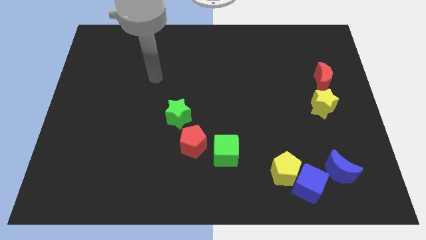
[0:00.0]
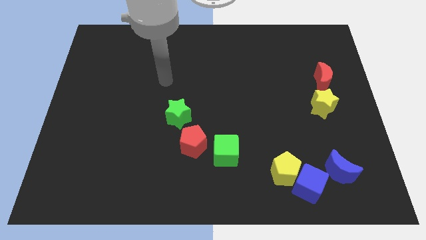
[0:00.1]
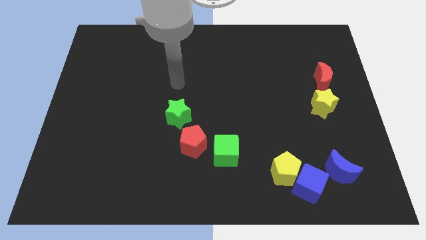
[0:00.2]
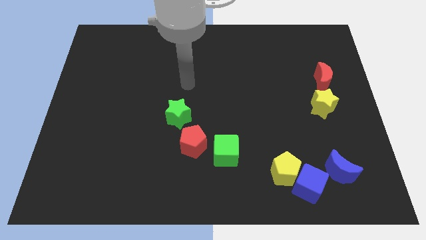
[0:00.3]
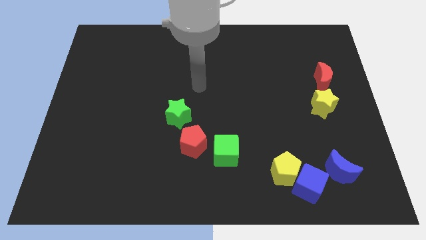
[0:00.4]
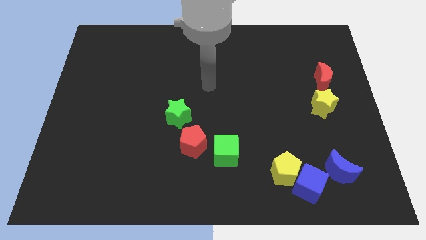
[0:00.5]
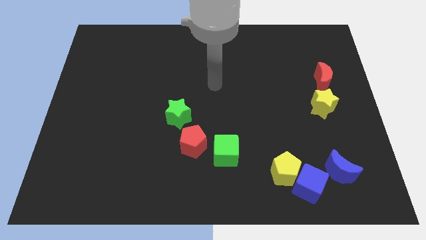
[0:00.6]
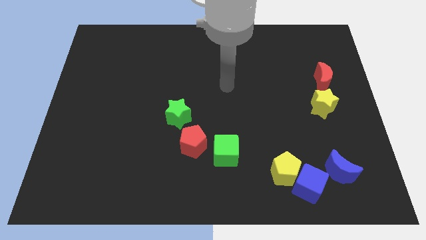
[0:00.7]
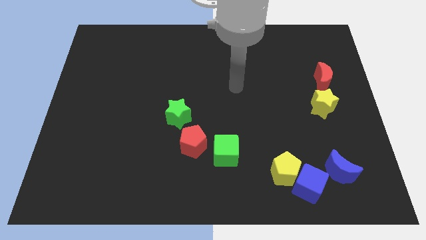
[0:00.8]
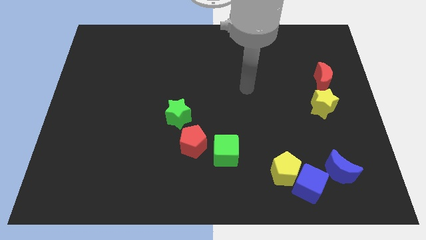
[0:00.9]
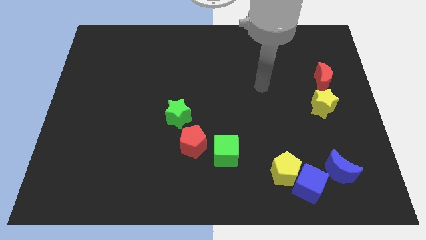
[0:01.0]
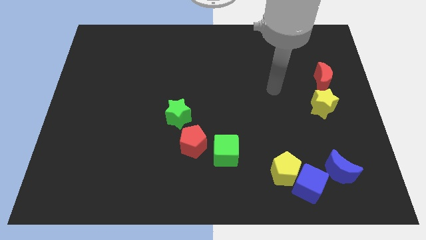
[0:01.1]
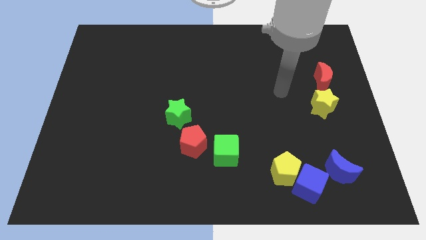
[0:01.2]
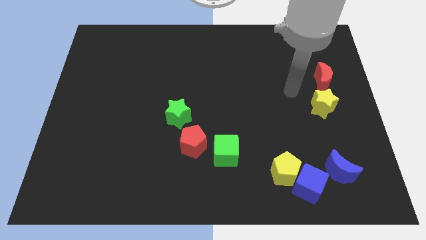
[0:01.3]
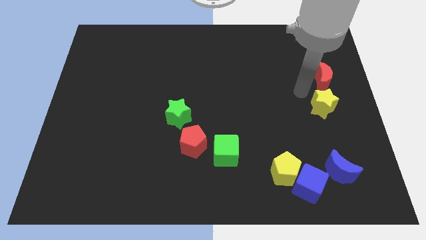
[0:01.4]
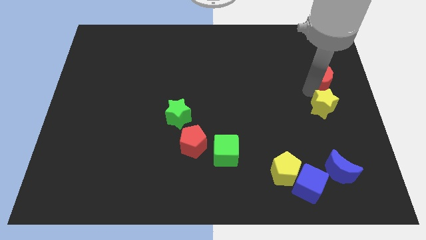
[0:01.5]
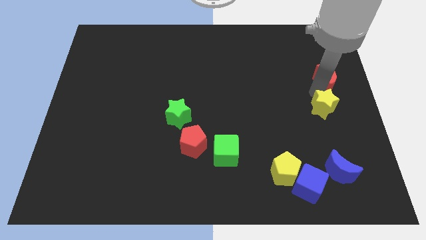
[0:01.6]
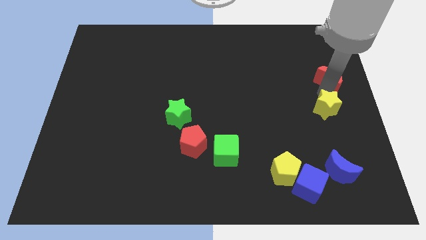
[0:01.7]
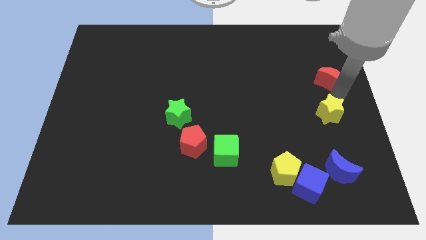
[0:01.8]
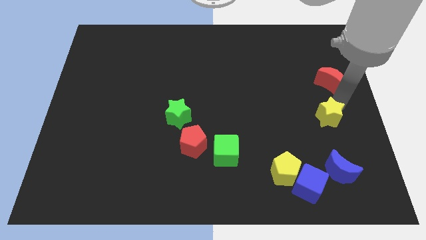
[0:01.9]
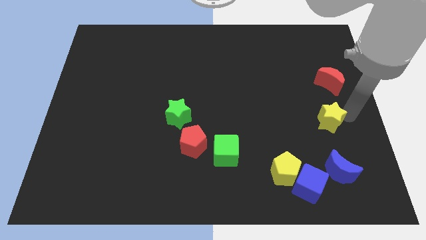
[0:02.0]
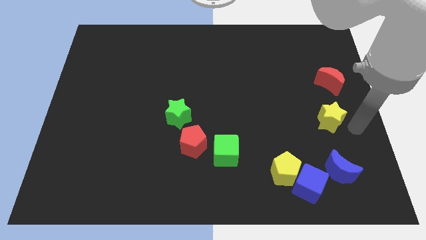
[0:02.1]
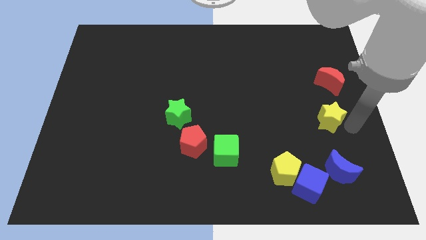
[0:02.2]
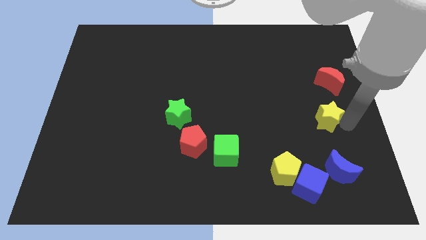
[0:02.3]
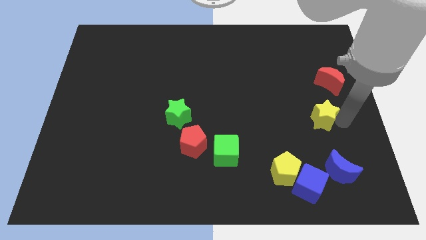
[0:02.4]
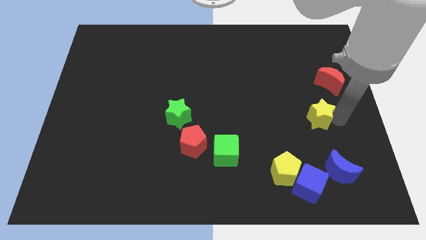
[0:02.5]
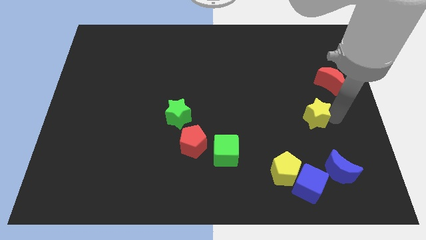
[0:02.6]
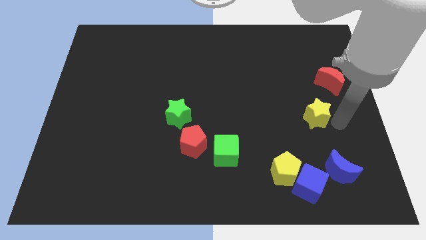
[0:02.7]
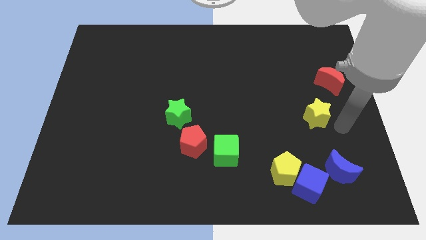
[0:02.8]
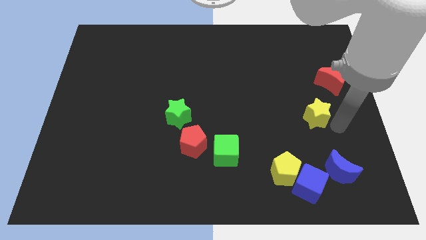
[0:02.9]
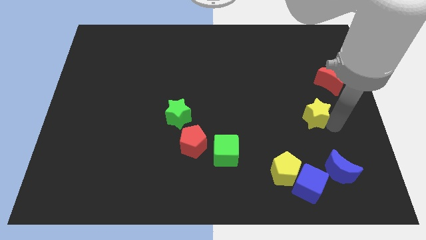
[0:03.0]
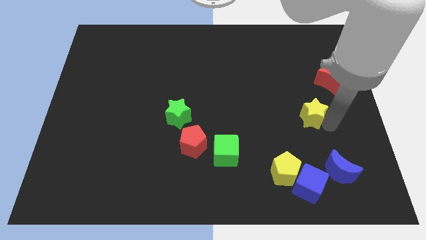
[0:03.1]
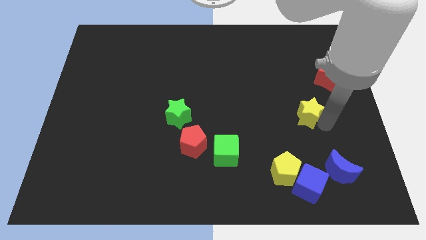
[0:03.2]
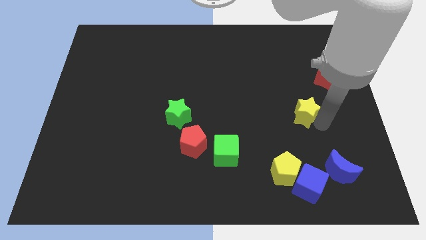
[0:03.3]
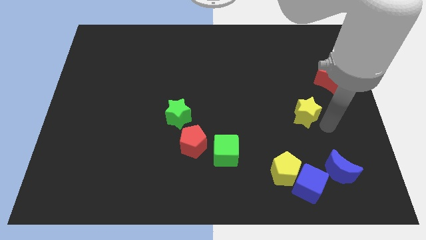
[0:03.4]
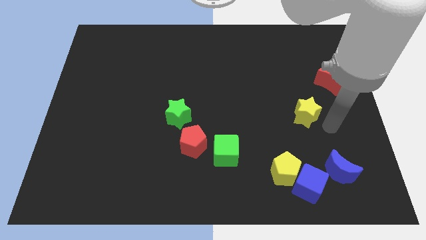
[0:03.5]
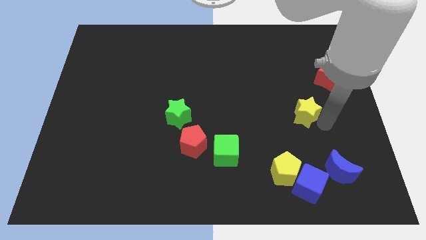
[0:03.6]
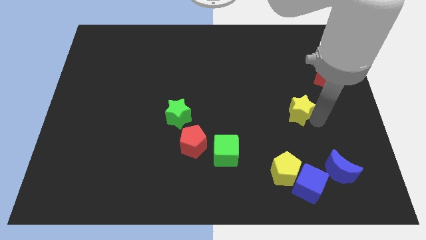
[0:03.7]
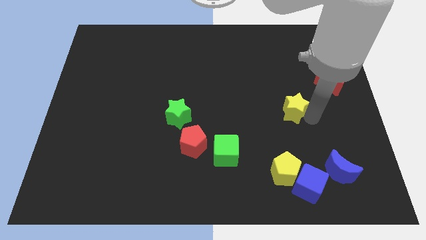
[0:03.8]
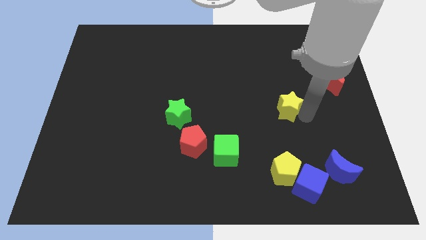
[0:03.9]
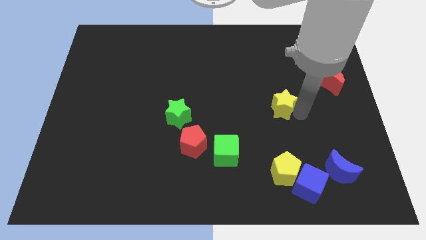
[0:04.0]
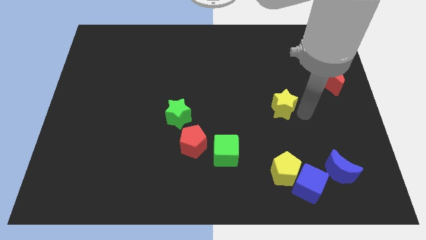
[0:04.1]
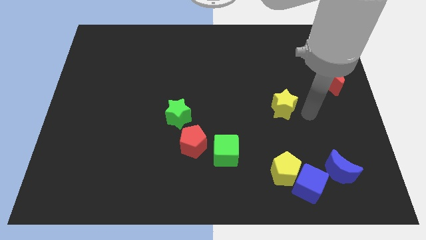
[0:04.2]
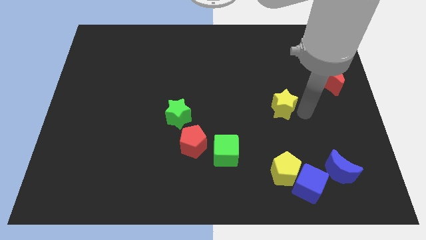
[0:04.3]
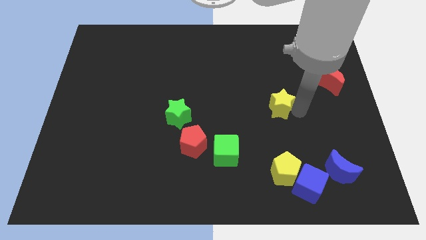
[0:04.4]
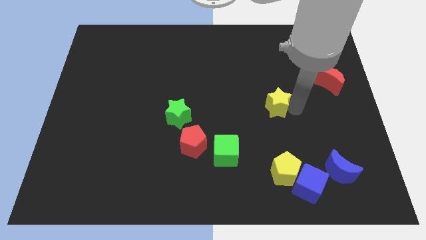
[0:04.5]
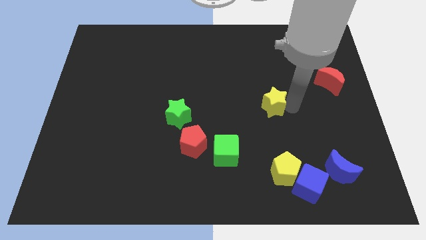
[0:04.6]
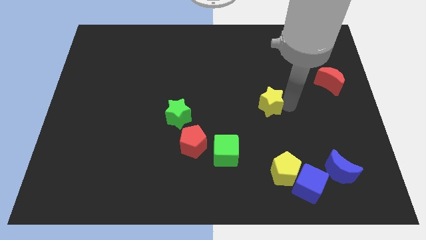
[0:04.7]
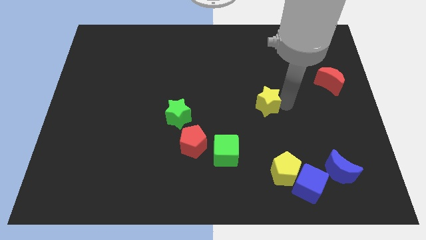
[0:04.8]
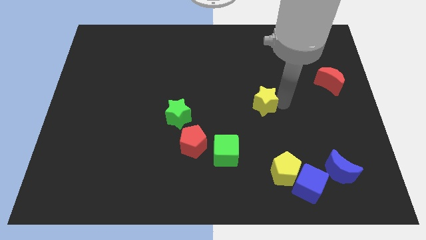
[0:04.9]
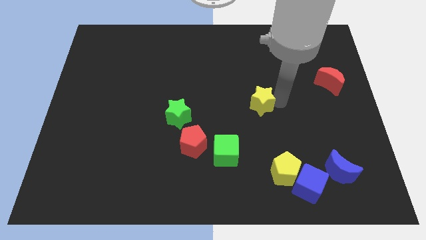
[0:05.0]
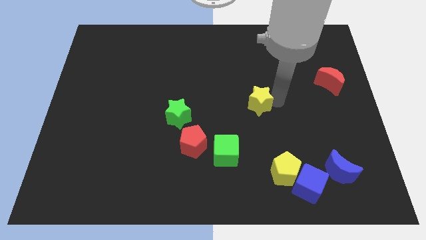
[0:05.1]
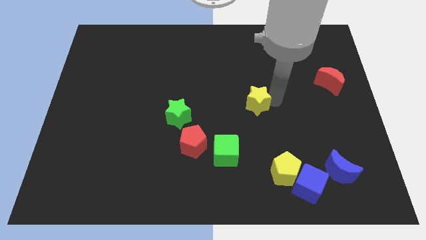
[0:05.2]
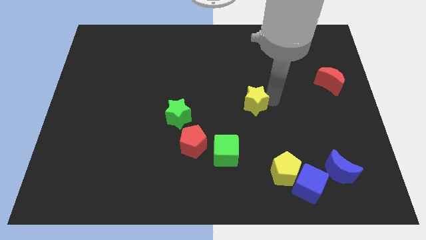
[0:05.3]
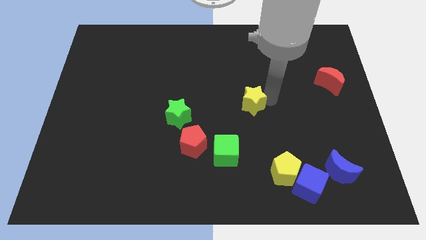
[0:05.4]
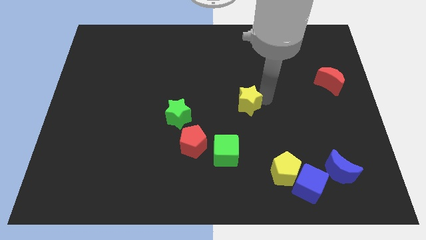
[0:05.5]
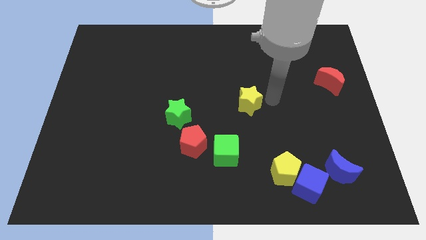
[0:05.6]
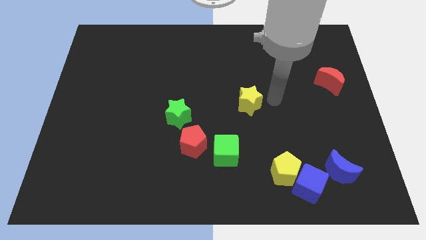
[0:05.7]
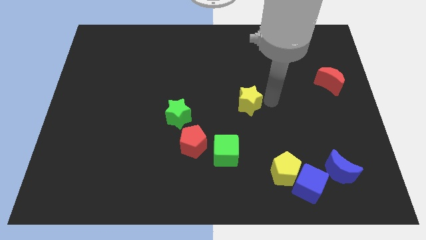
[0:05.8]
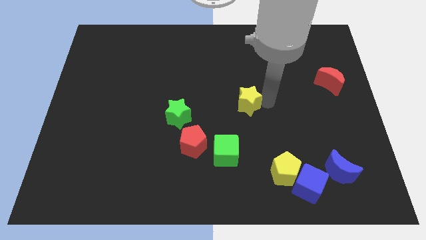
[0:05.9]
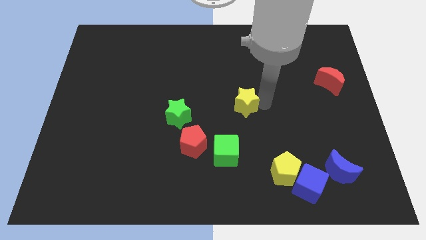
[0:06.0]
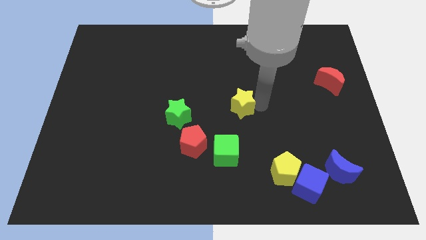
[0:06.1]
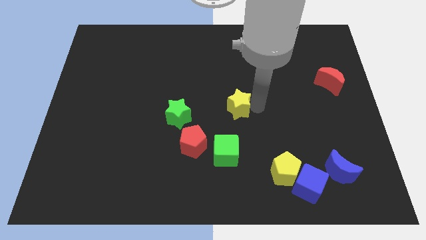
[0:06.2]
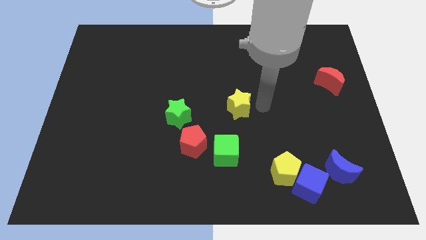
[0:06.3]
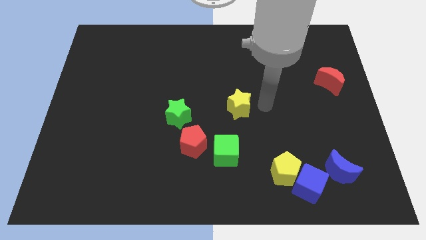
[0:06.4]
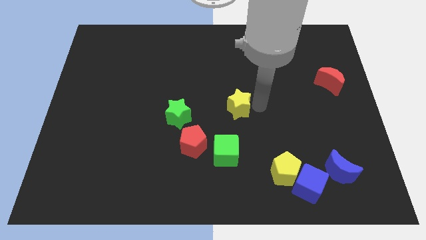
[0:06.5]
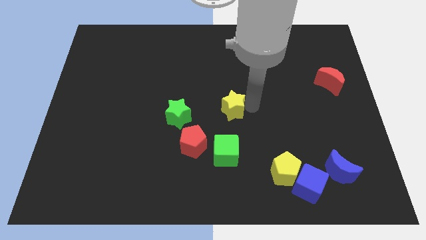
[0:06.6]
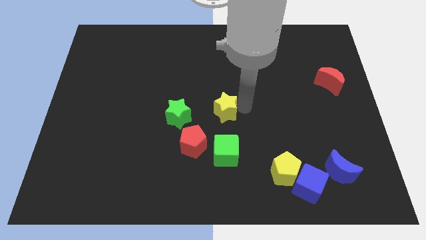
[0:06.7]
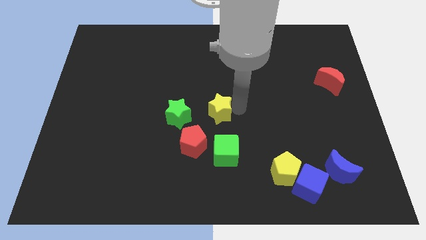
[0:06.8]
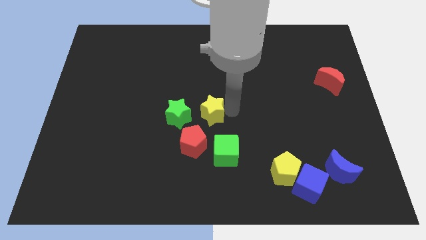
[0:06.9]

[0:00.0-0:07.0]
push the yellow star above the red pentagon
